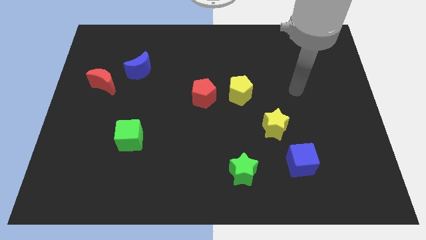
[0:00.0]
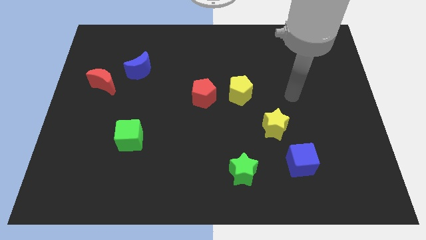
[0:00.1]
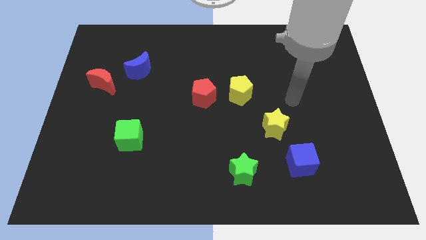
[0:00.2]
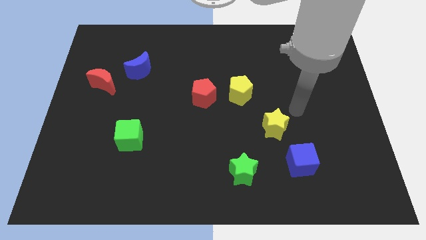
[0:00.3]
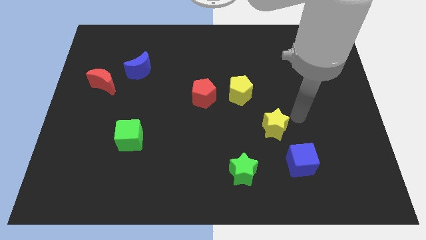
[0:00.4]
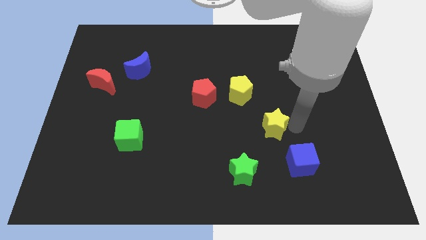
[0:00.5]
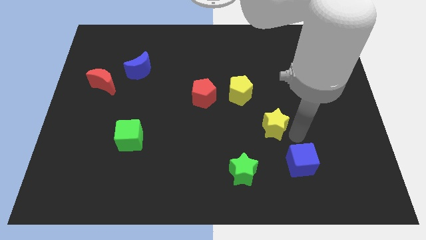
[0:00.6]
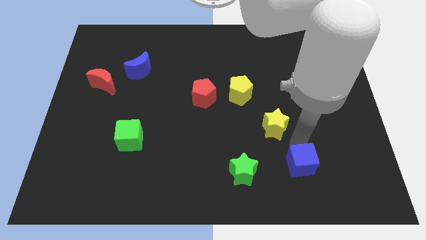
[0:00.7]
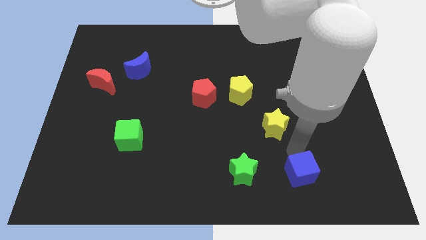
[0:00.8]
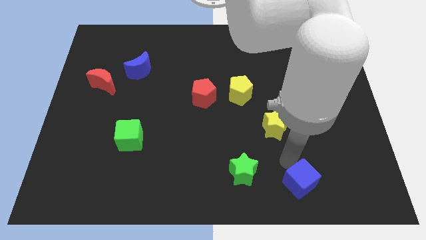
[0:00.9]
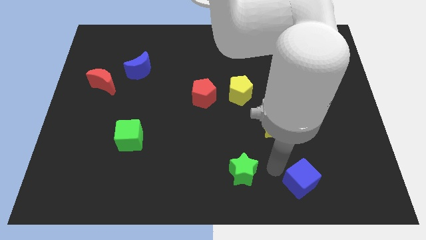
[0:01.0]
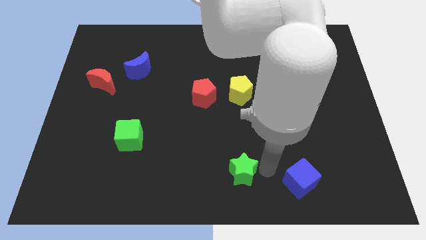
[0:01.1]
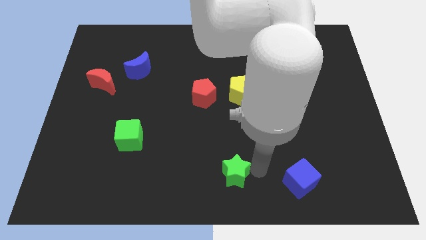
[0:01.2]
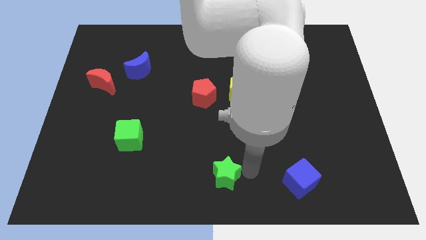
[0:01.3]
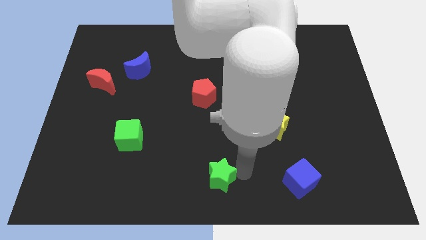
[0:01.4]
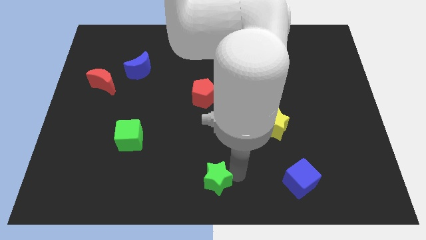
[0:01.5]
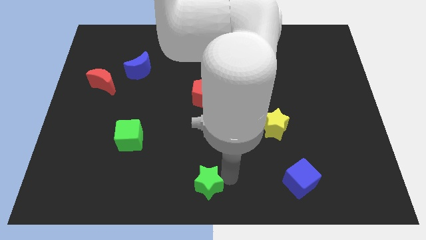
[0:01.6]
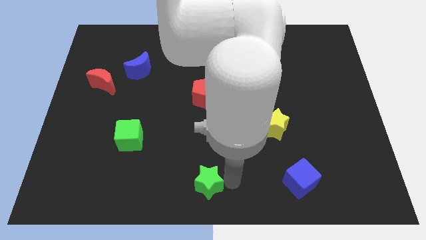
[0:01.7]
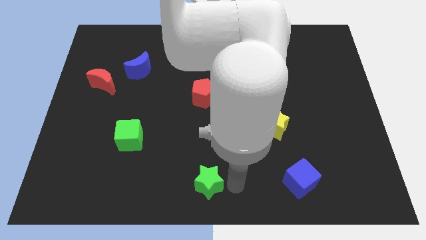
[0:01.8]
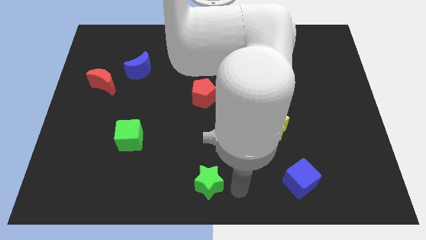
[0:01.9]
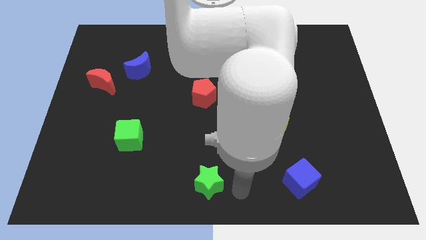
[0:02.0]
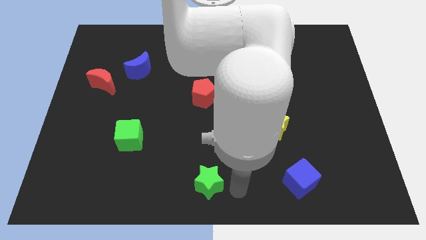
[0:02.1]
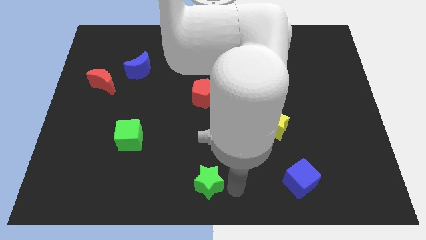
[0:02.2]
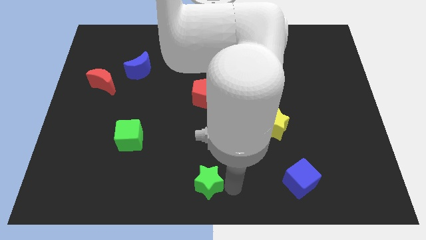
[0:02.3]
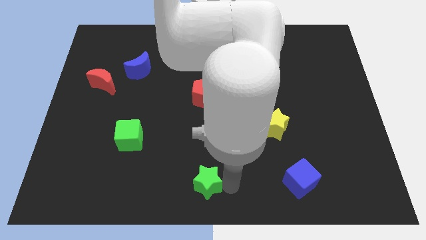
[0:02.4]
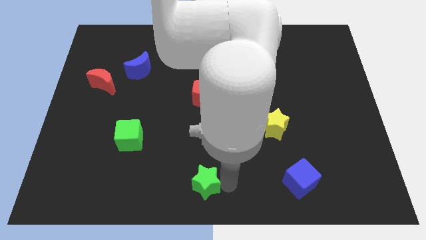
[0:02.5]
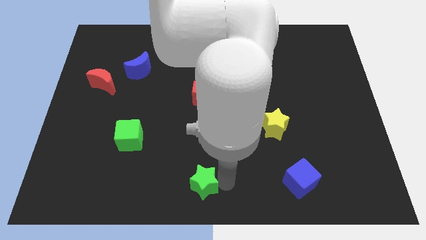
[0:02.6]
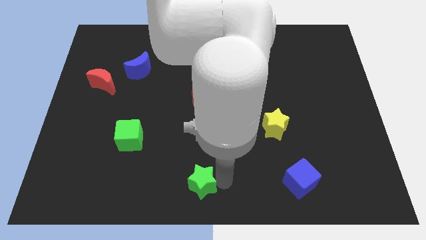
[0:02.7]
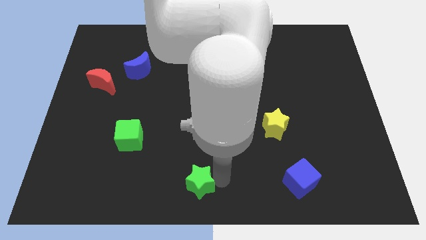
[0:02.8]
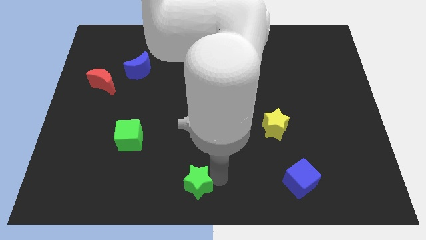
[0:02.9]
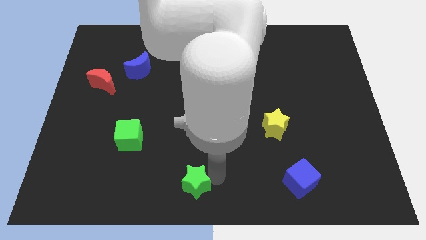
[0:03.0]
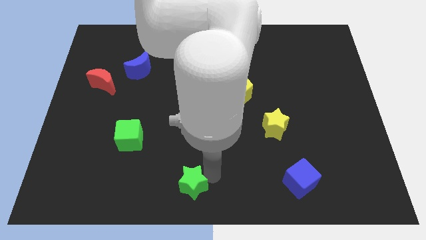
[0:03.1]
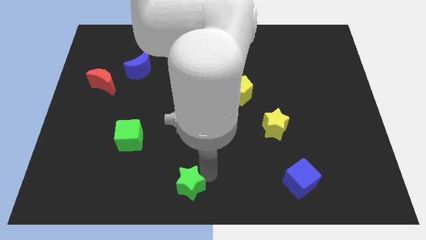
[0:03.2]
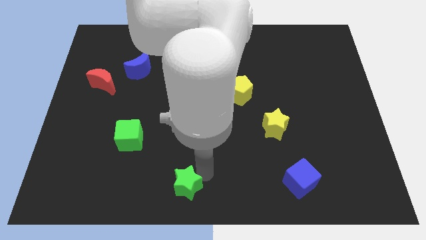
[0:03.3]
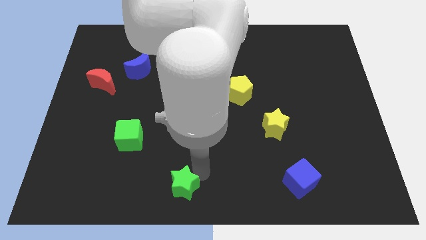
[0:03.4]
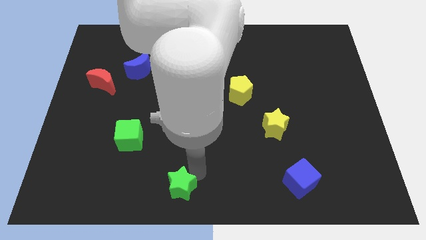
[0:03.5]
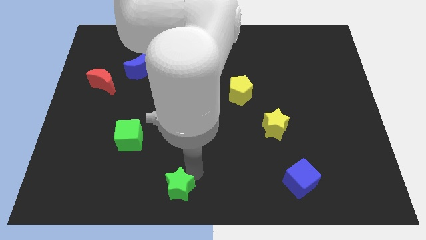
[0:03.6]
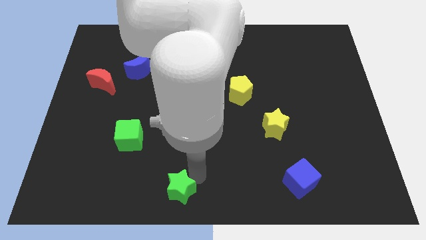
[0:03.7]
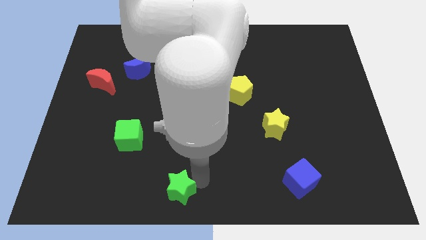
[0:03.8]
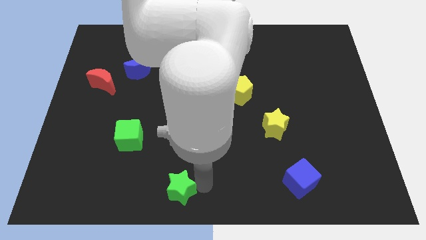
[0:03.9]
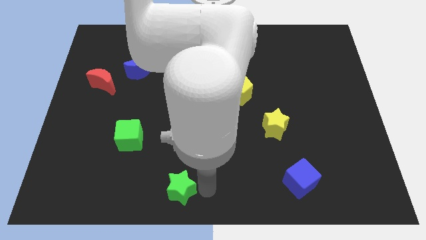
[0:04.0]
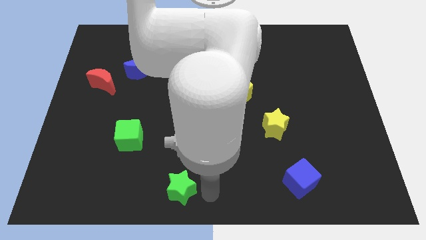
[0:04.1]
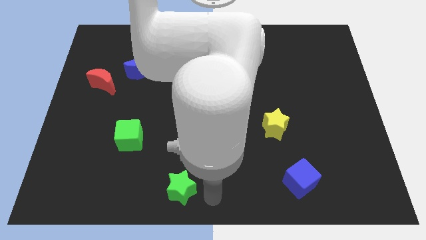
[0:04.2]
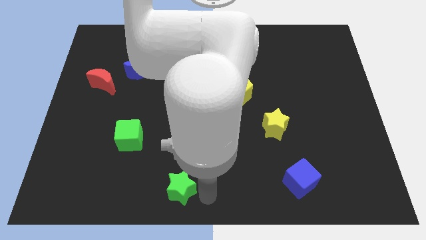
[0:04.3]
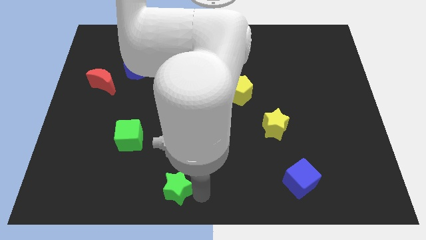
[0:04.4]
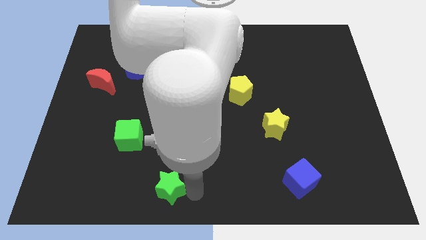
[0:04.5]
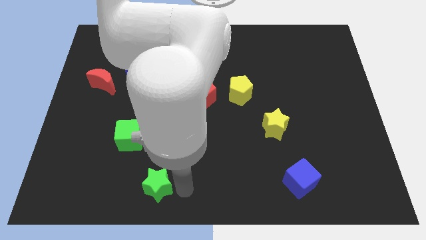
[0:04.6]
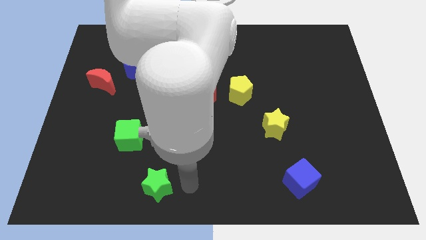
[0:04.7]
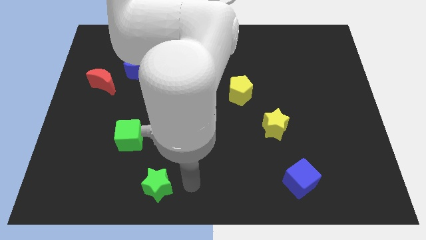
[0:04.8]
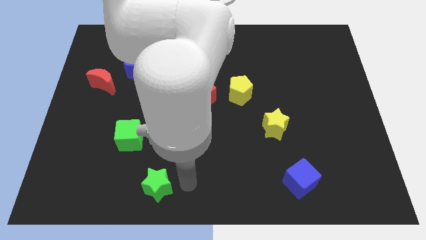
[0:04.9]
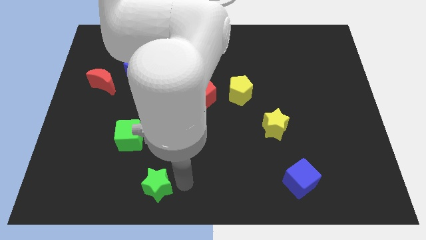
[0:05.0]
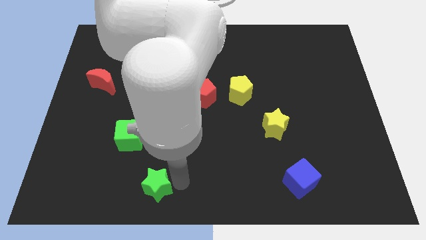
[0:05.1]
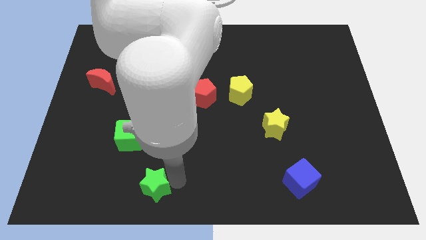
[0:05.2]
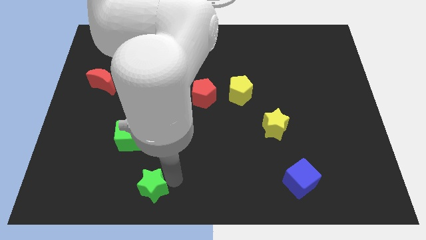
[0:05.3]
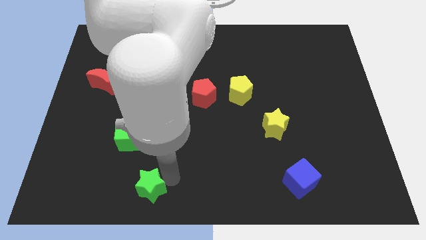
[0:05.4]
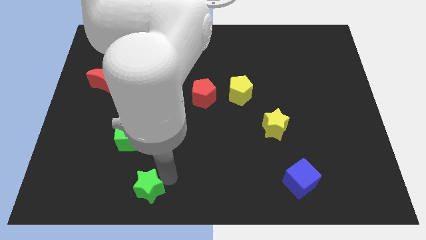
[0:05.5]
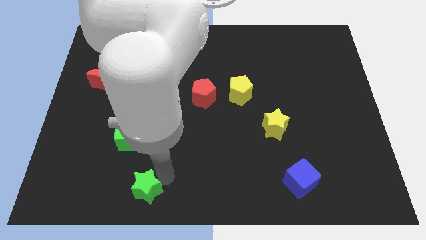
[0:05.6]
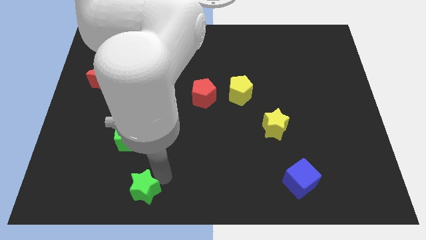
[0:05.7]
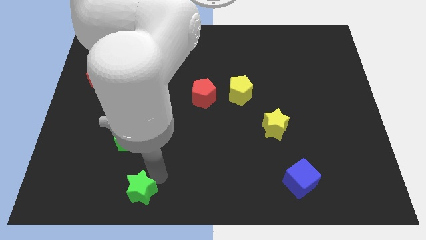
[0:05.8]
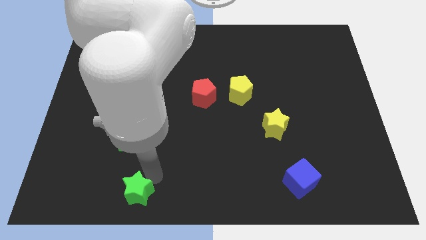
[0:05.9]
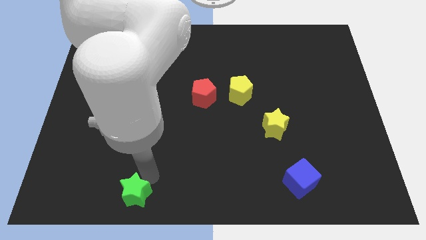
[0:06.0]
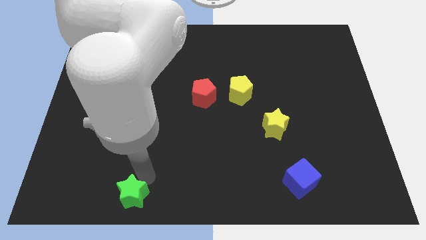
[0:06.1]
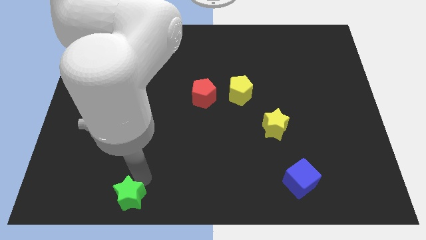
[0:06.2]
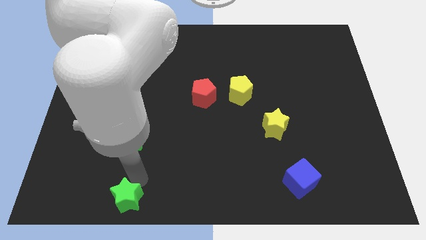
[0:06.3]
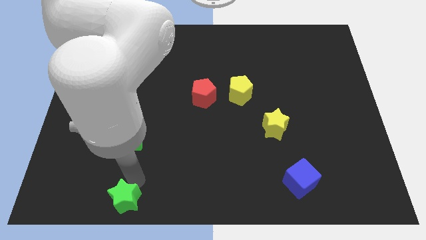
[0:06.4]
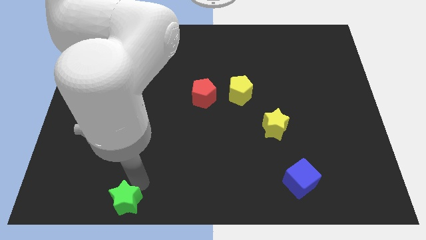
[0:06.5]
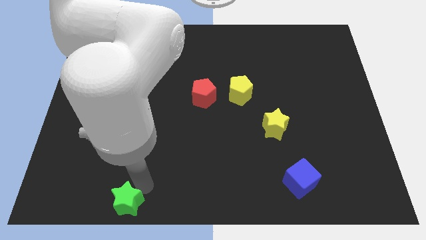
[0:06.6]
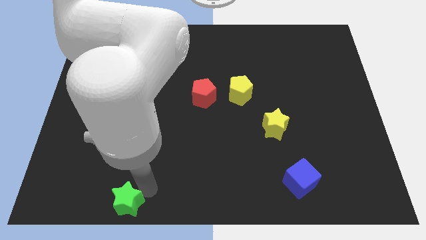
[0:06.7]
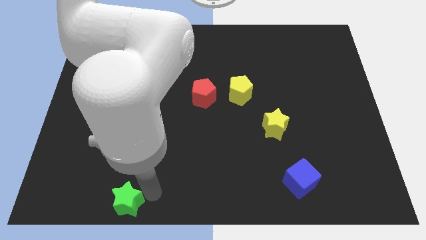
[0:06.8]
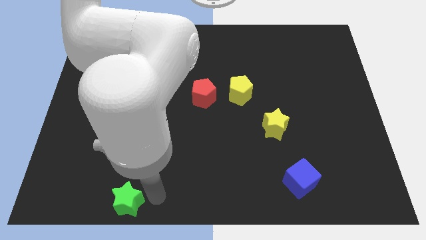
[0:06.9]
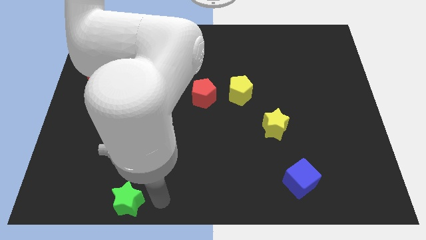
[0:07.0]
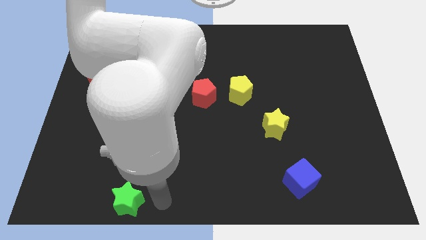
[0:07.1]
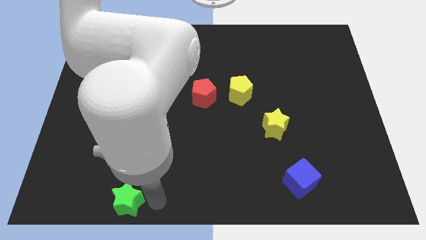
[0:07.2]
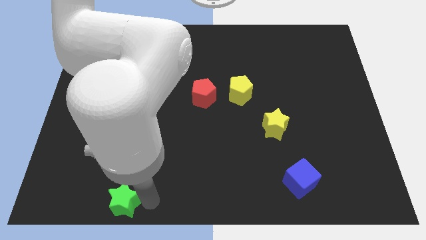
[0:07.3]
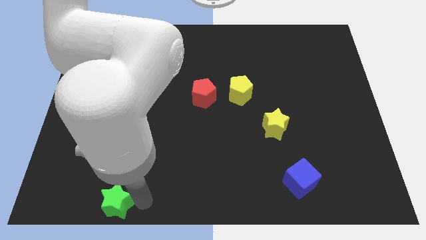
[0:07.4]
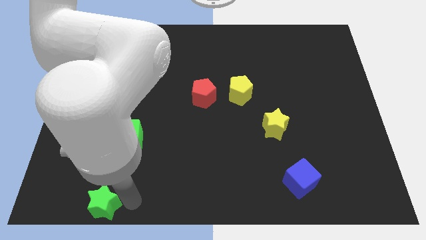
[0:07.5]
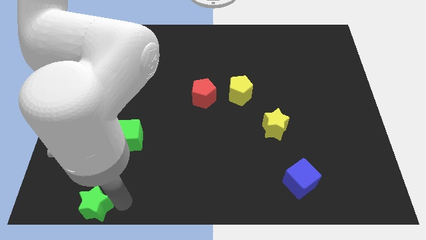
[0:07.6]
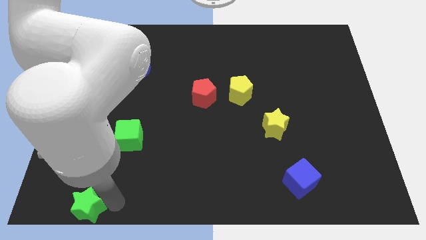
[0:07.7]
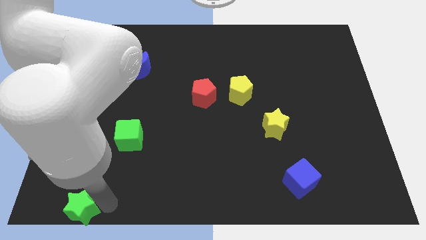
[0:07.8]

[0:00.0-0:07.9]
move the green star to the bottom left of the board
